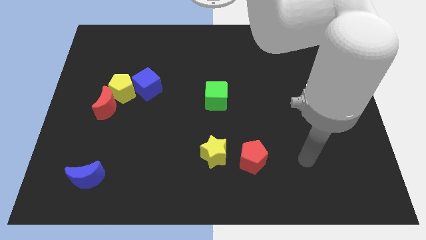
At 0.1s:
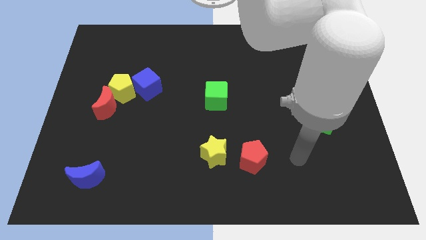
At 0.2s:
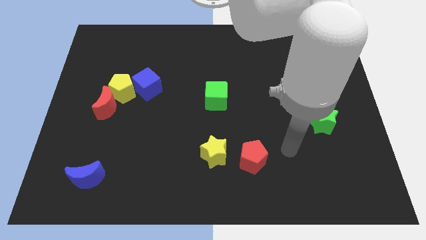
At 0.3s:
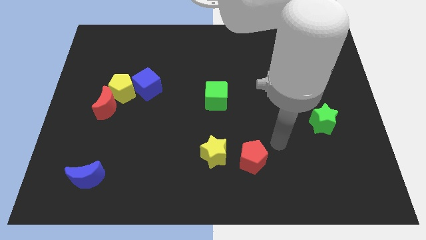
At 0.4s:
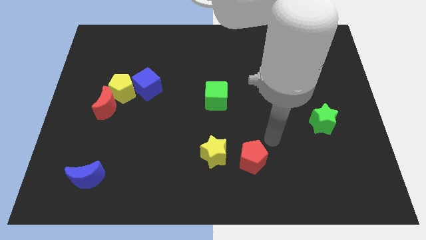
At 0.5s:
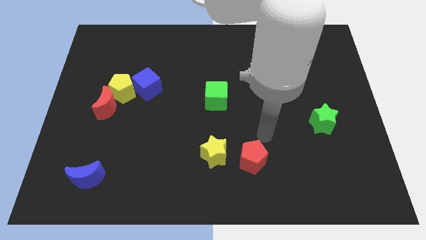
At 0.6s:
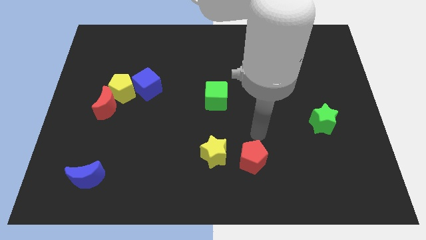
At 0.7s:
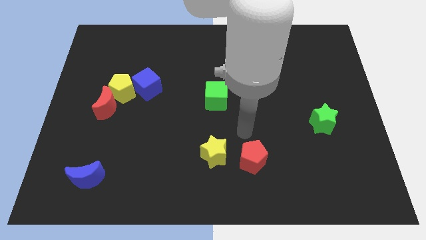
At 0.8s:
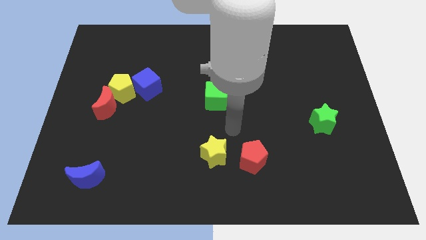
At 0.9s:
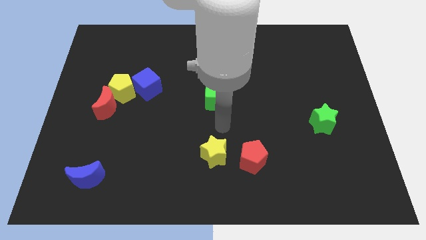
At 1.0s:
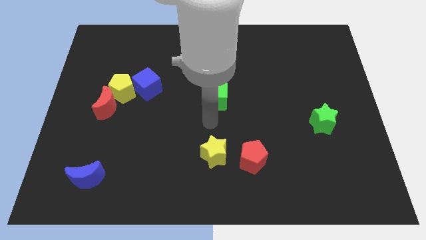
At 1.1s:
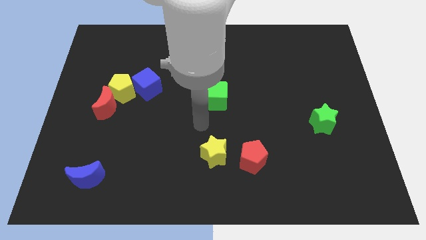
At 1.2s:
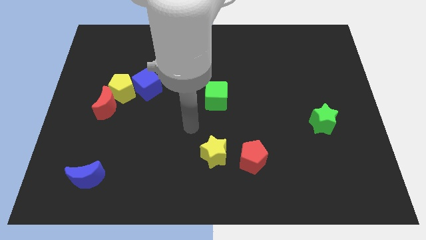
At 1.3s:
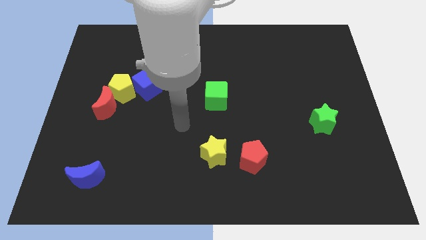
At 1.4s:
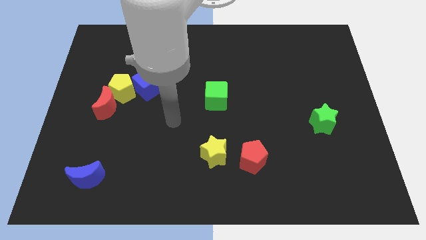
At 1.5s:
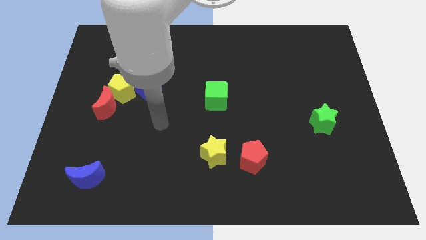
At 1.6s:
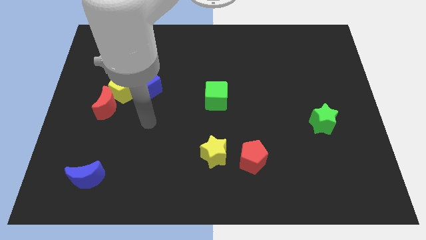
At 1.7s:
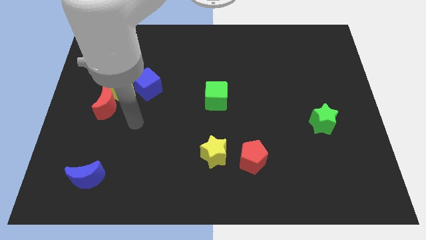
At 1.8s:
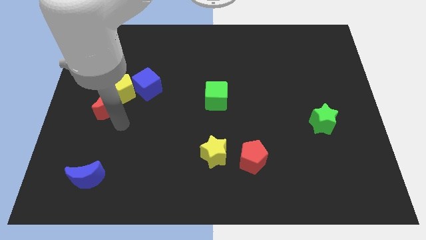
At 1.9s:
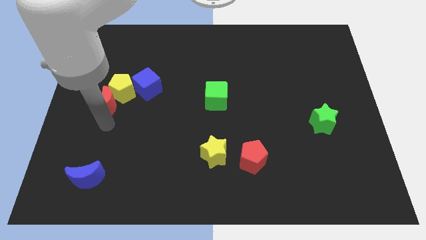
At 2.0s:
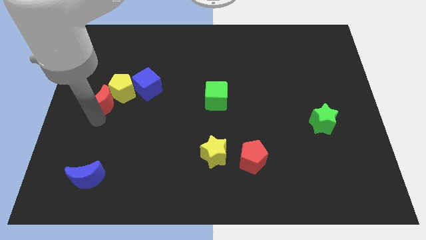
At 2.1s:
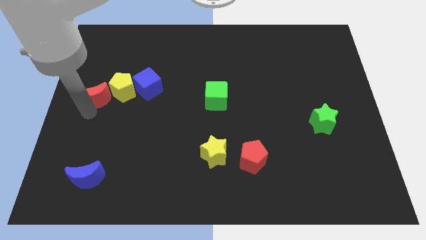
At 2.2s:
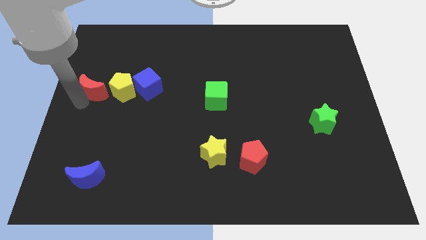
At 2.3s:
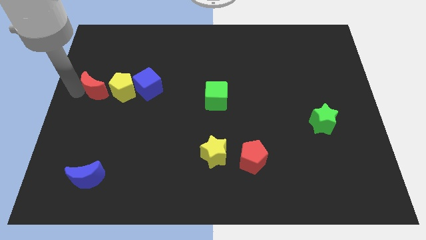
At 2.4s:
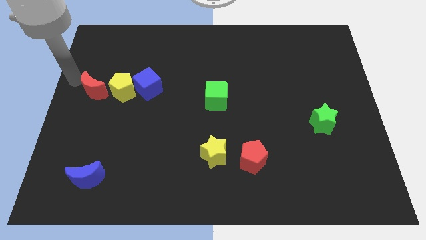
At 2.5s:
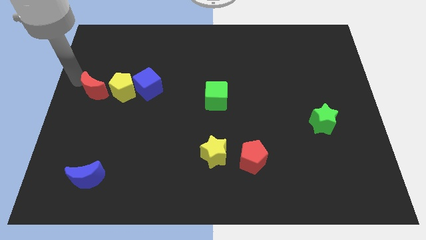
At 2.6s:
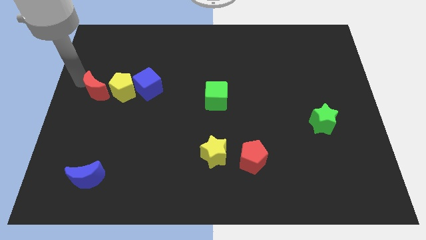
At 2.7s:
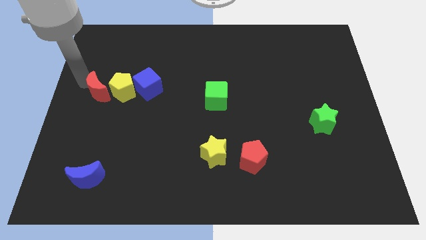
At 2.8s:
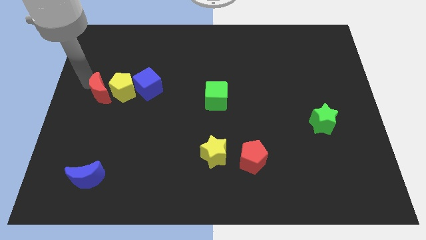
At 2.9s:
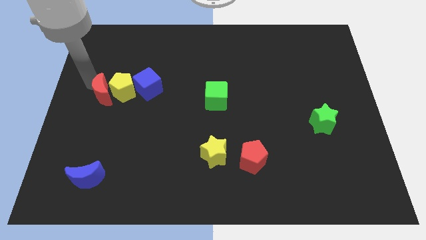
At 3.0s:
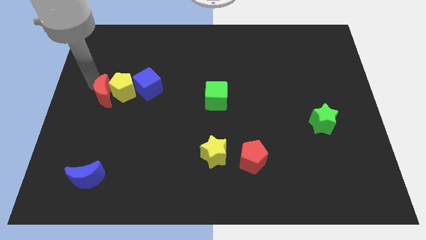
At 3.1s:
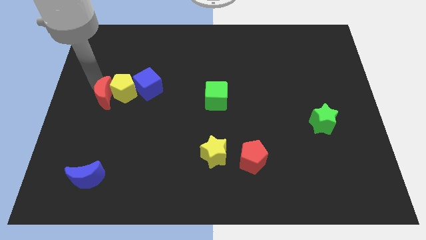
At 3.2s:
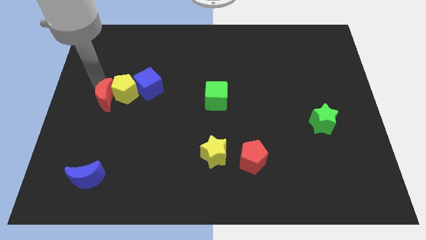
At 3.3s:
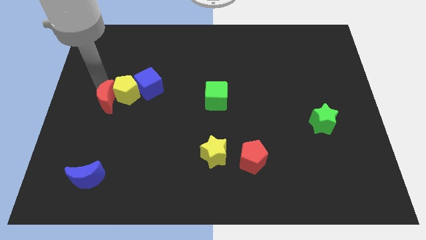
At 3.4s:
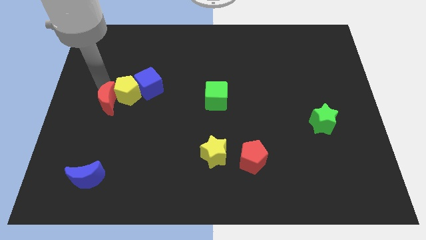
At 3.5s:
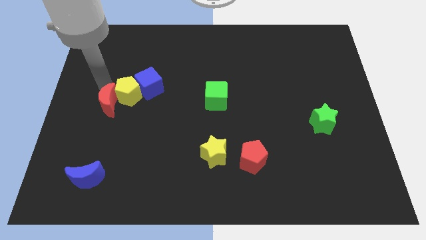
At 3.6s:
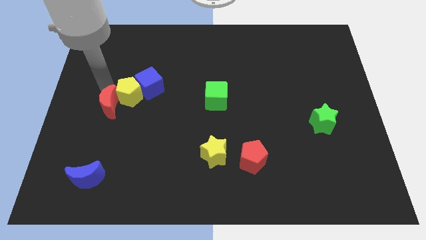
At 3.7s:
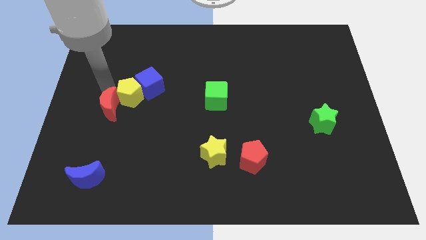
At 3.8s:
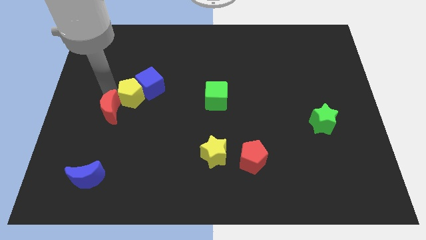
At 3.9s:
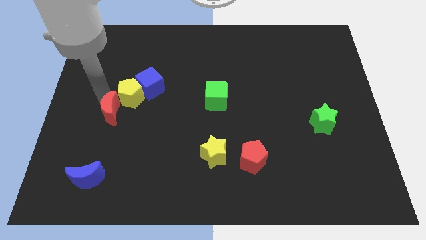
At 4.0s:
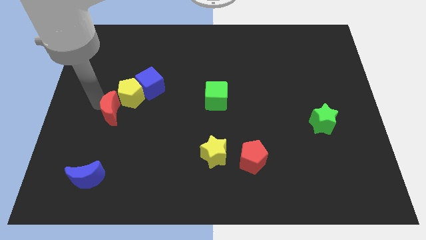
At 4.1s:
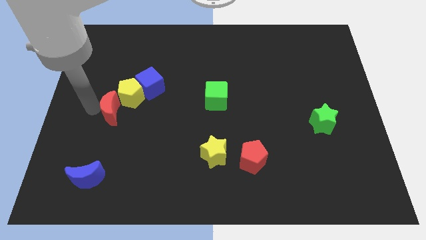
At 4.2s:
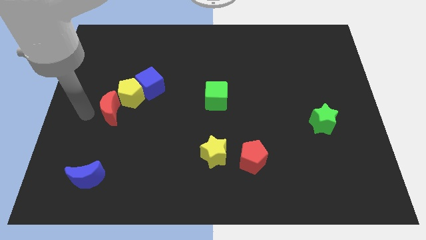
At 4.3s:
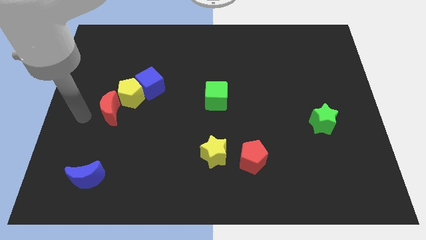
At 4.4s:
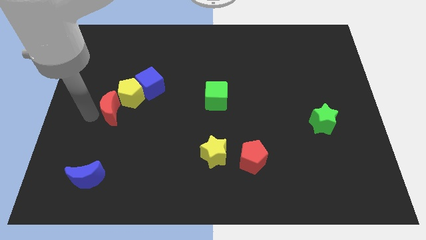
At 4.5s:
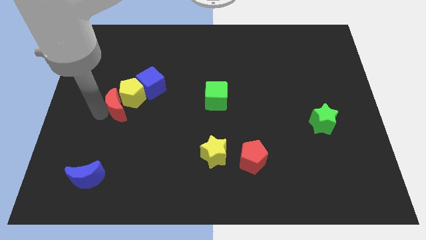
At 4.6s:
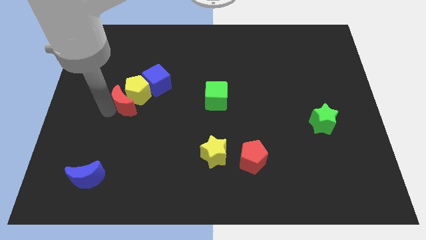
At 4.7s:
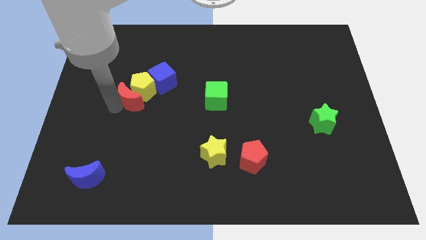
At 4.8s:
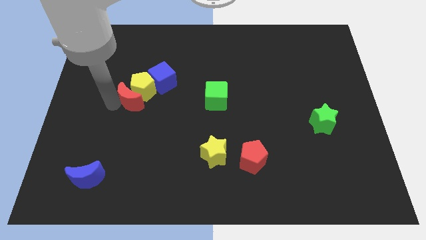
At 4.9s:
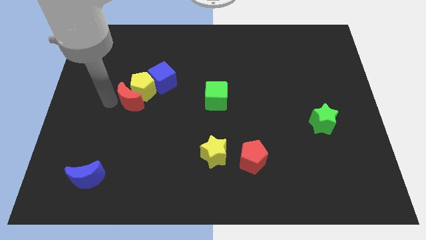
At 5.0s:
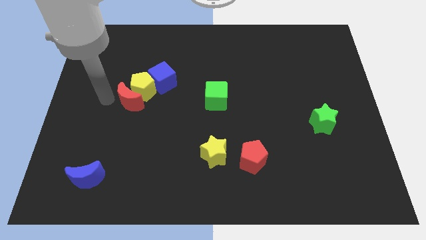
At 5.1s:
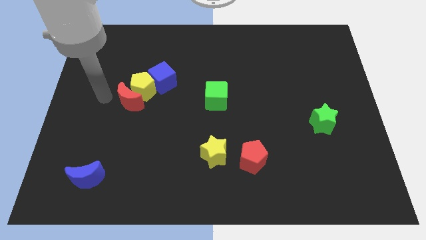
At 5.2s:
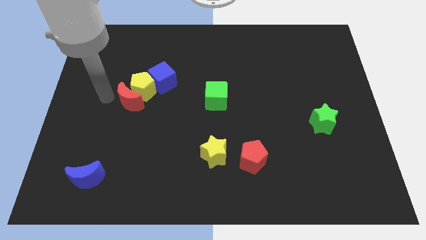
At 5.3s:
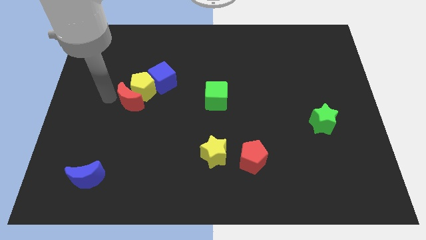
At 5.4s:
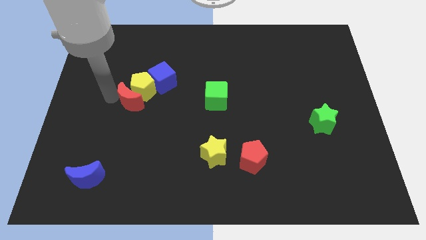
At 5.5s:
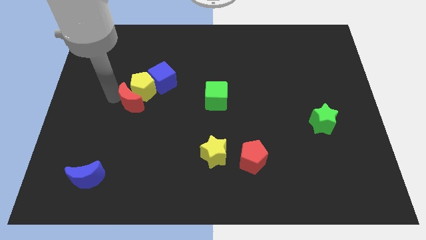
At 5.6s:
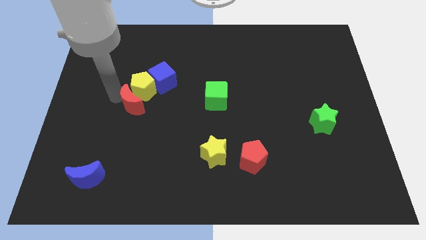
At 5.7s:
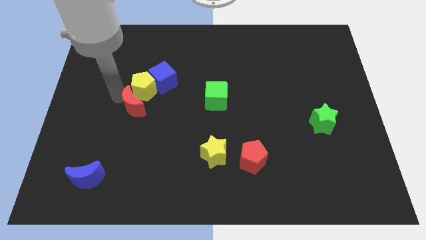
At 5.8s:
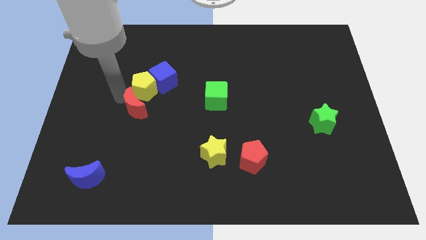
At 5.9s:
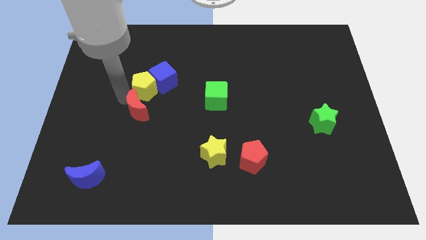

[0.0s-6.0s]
slightly slide the red moon right

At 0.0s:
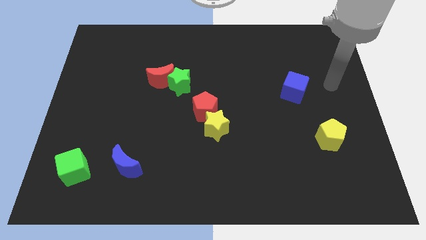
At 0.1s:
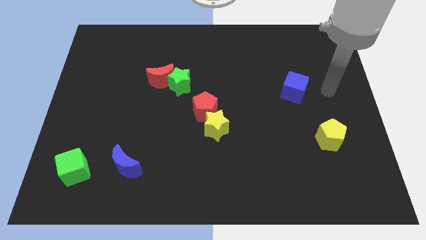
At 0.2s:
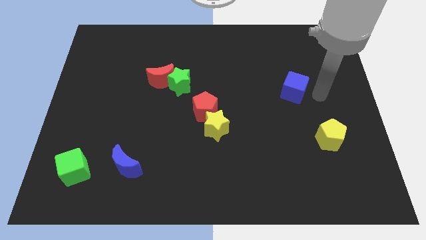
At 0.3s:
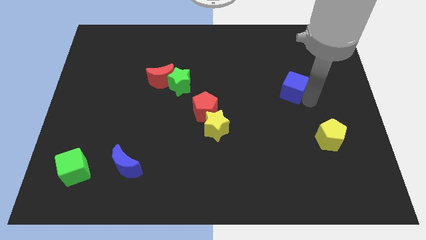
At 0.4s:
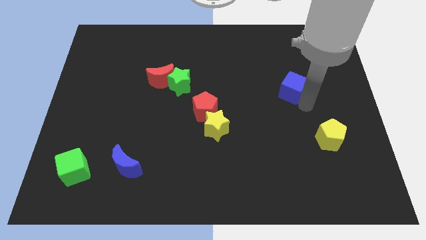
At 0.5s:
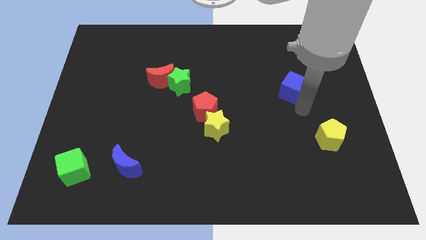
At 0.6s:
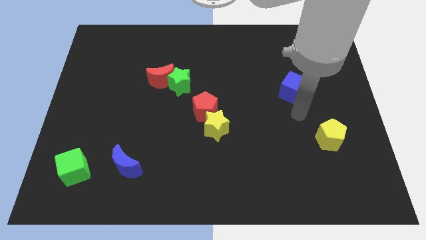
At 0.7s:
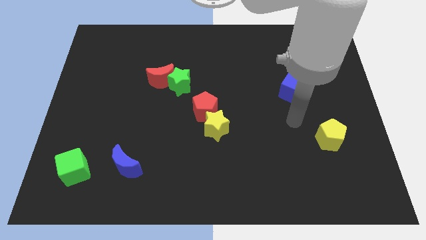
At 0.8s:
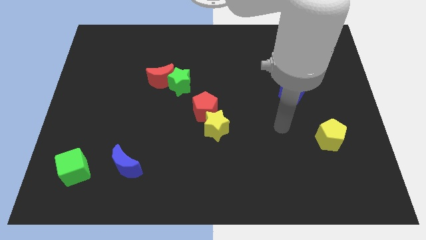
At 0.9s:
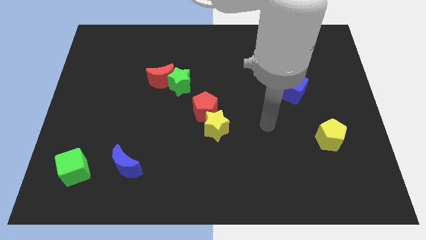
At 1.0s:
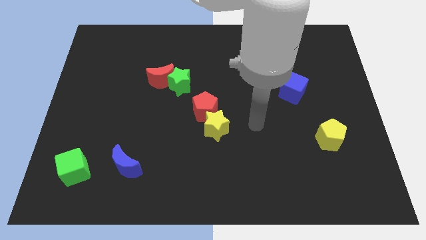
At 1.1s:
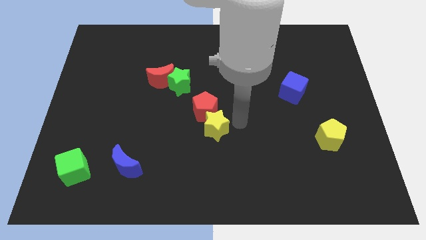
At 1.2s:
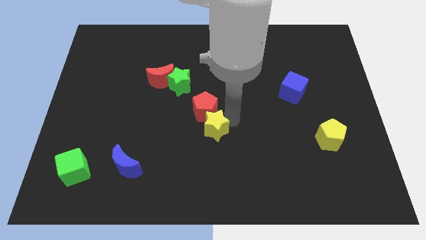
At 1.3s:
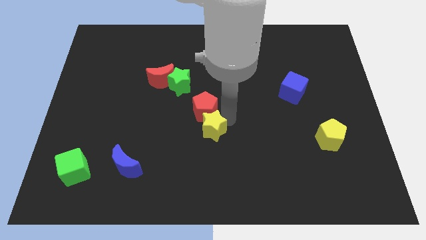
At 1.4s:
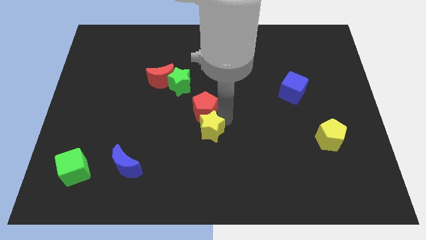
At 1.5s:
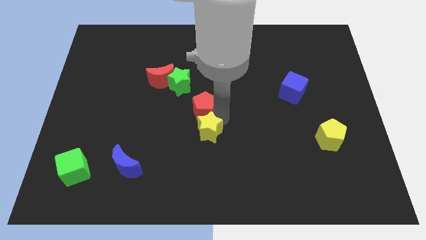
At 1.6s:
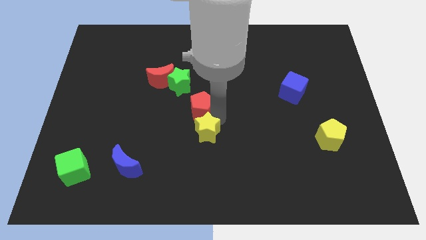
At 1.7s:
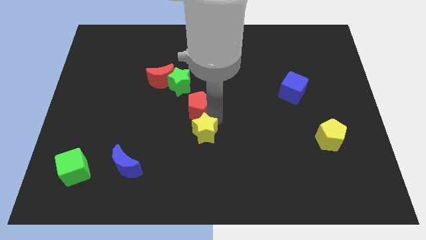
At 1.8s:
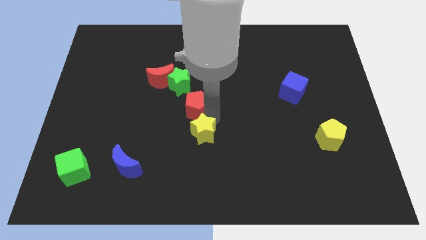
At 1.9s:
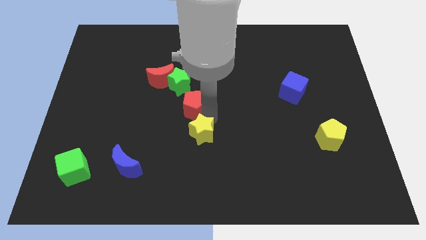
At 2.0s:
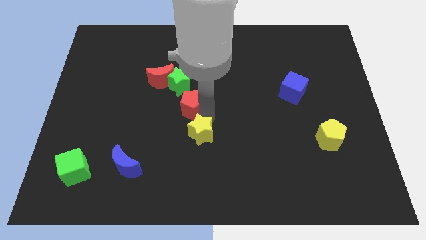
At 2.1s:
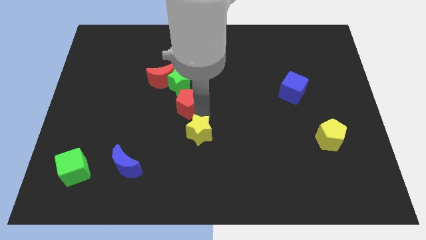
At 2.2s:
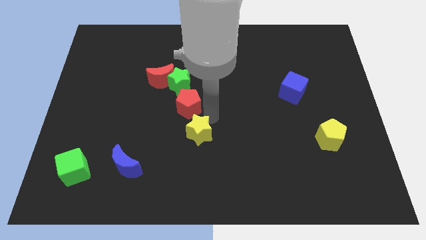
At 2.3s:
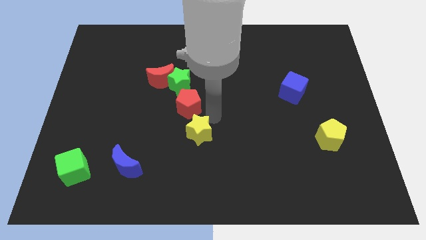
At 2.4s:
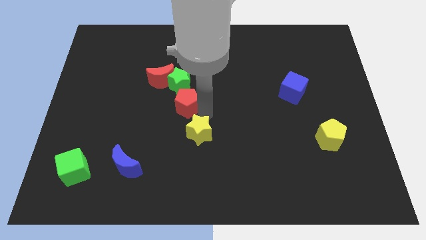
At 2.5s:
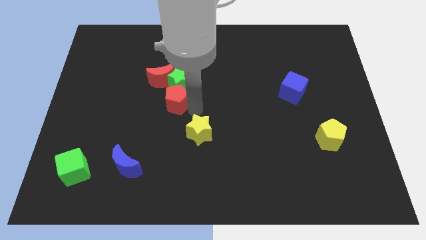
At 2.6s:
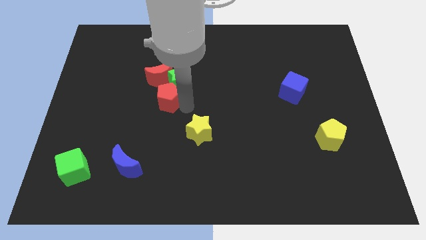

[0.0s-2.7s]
slightly slide the red pentagon diagonally upwards and left
